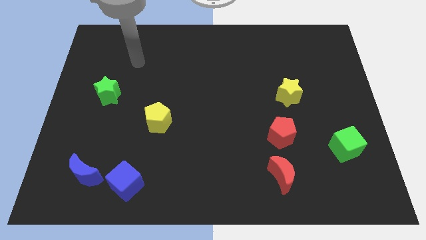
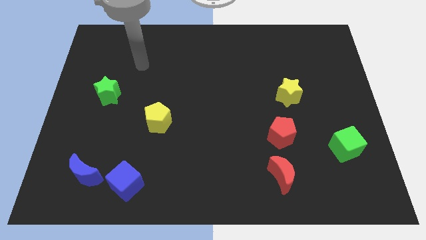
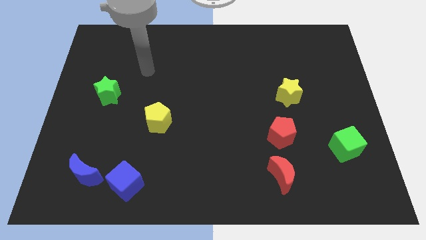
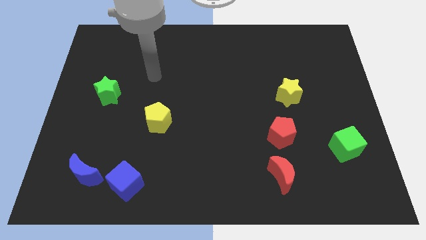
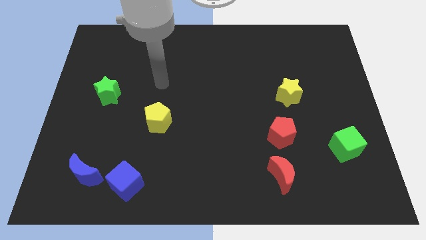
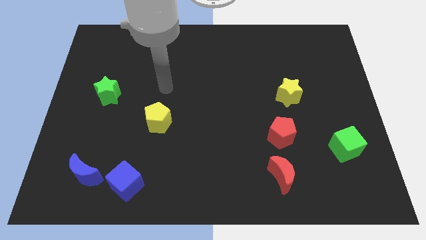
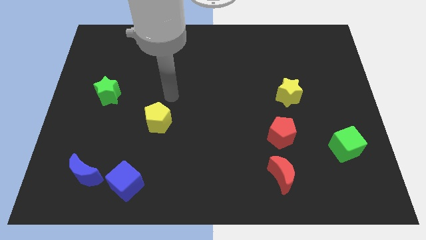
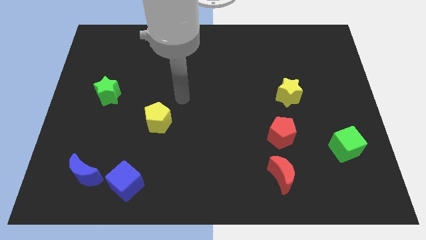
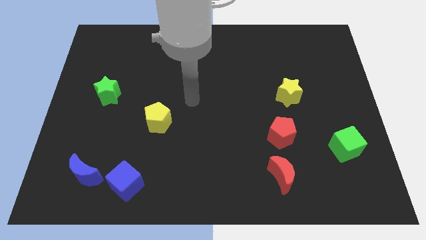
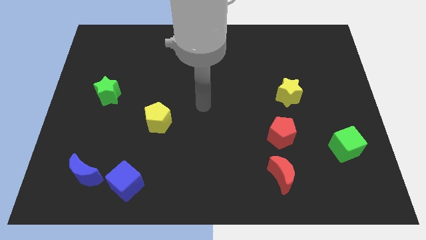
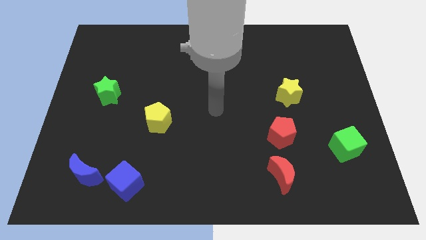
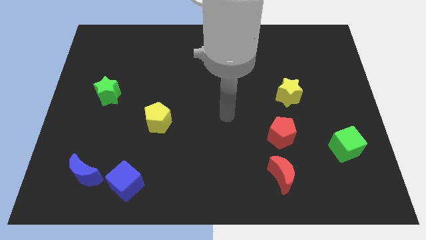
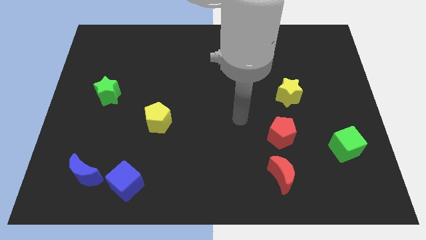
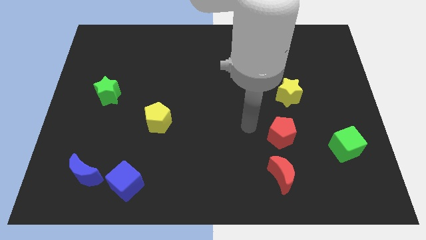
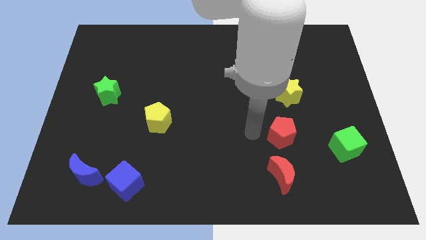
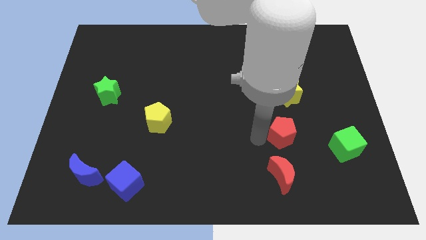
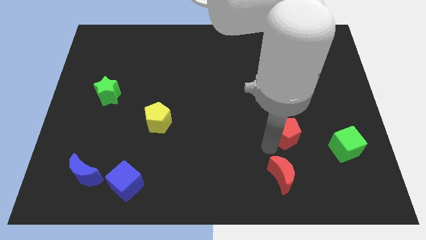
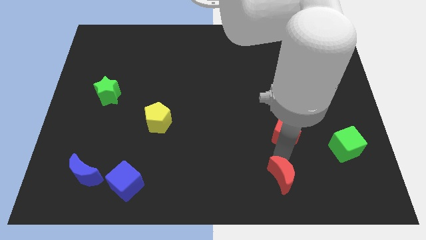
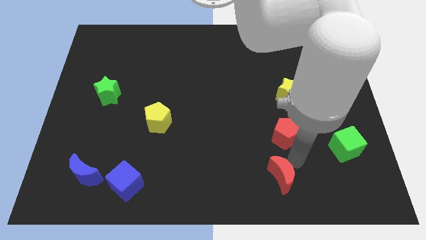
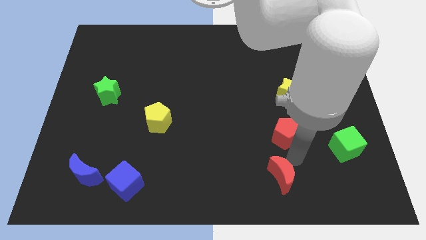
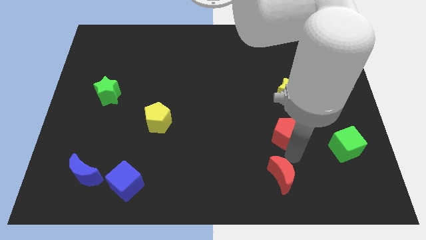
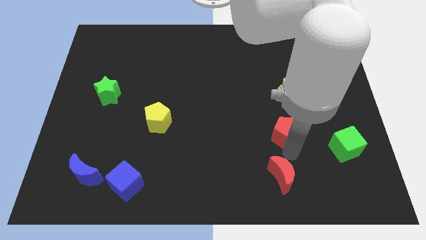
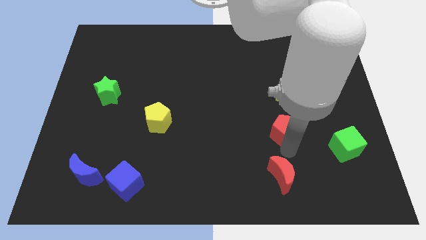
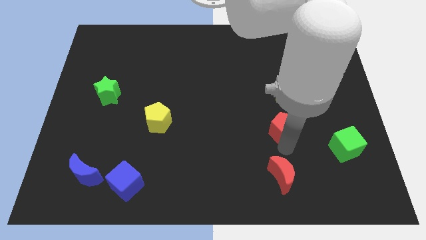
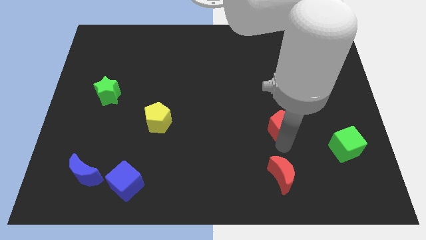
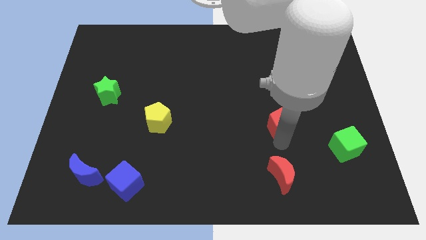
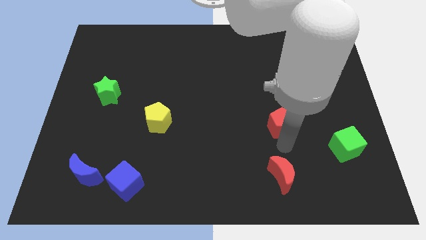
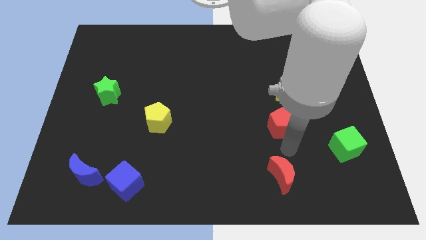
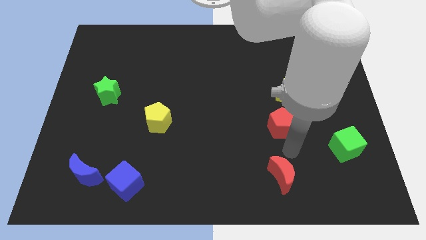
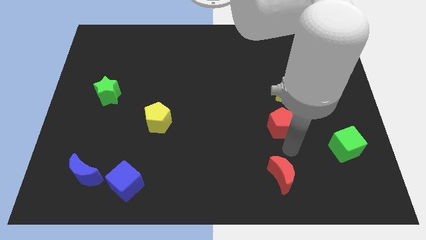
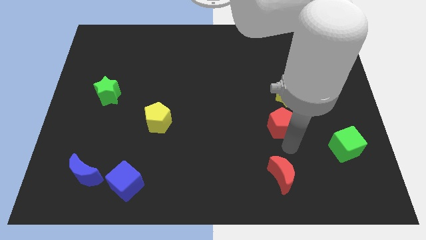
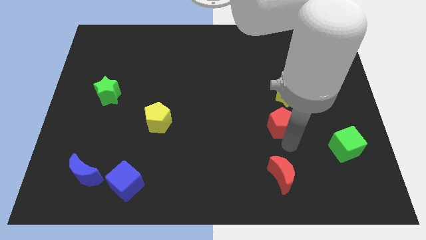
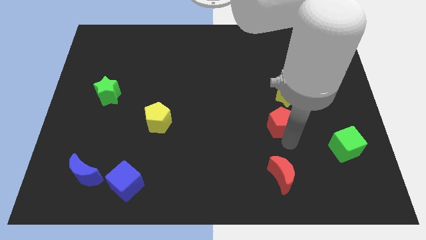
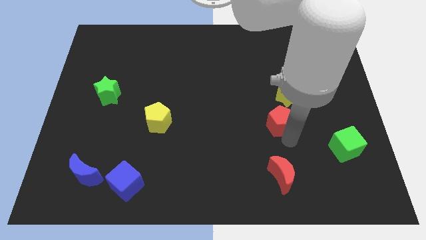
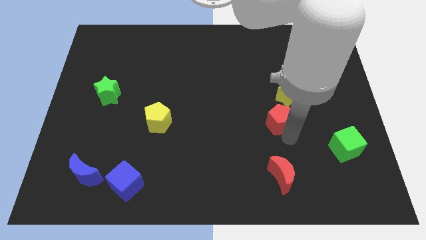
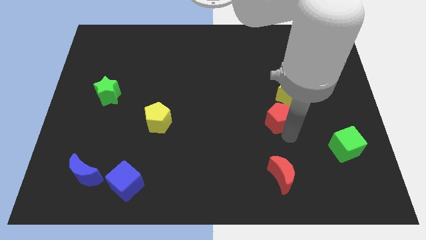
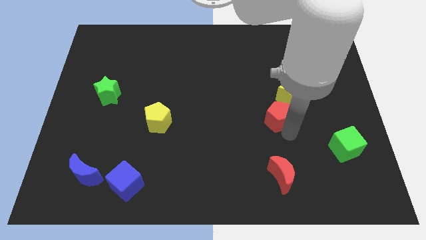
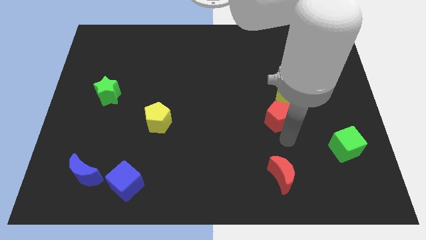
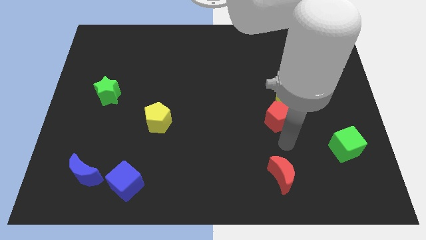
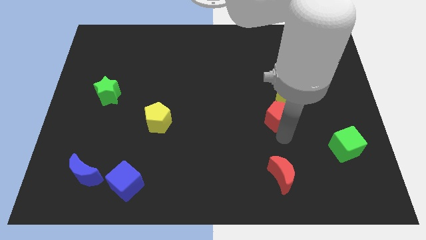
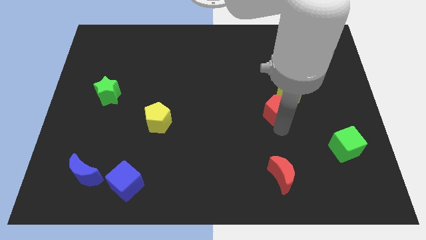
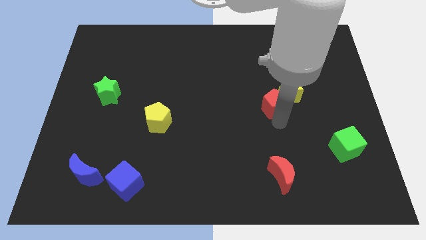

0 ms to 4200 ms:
move the red pentagon somewhat upwards

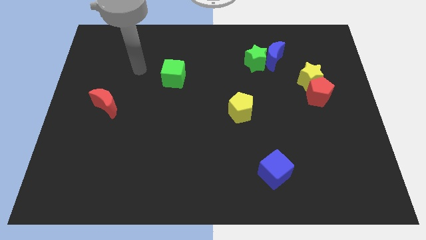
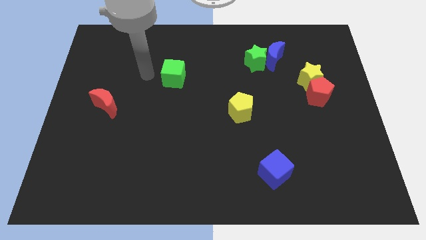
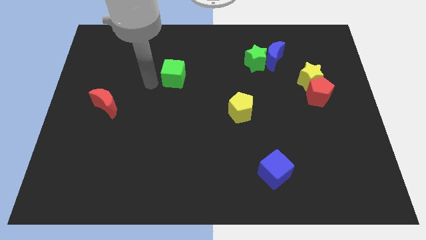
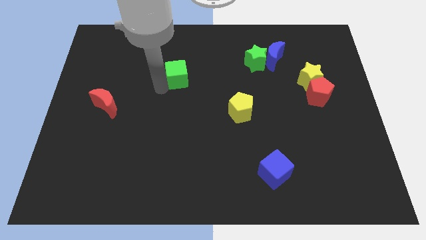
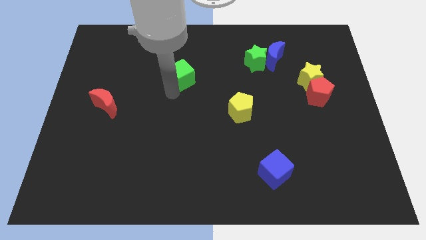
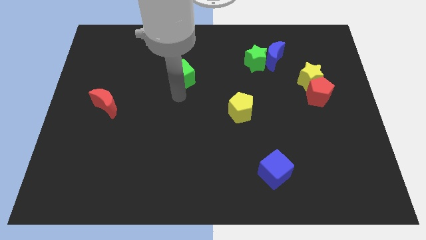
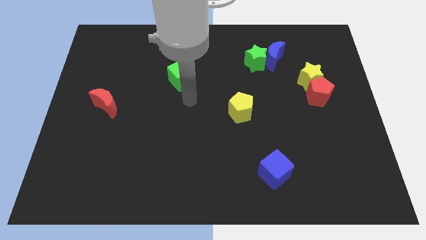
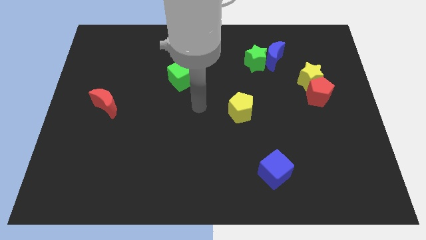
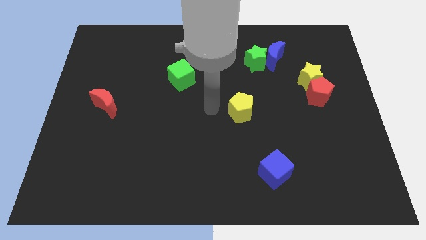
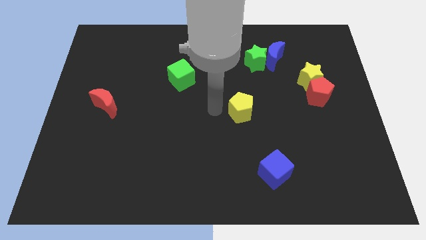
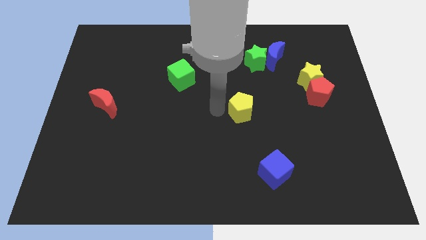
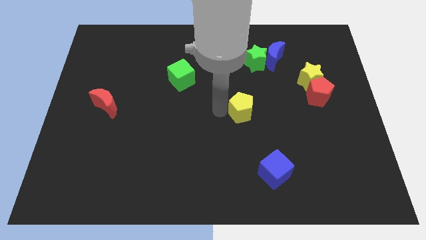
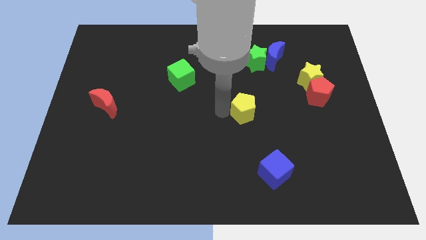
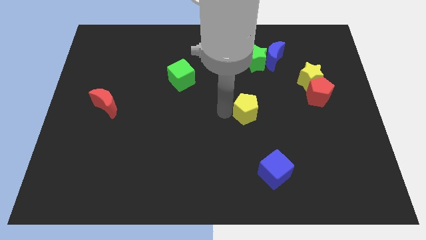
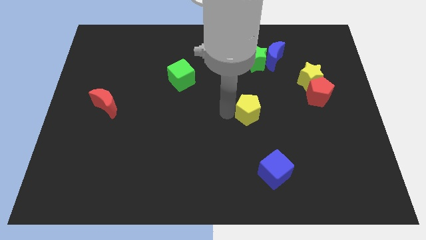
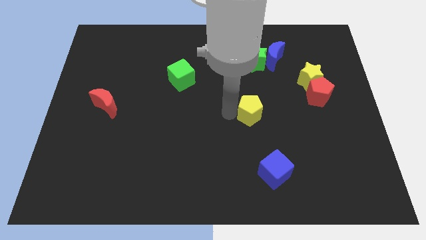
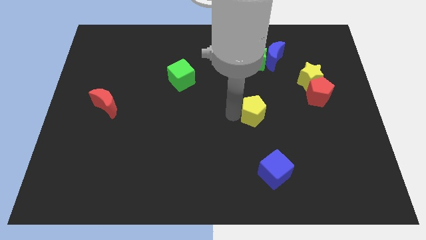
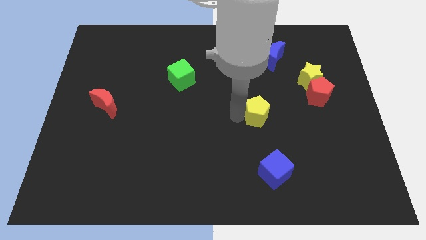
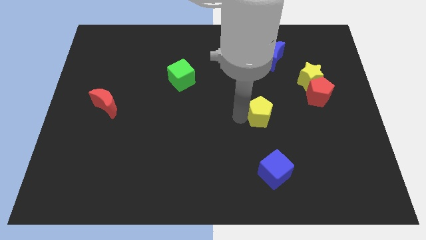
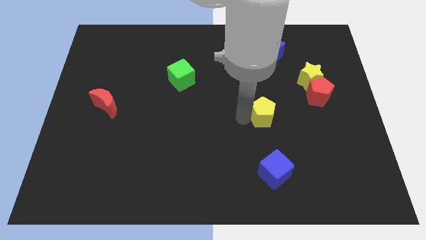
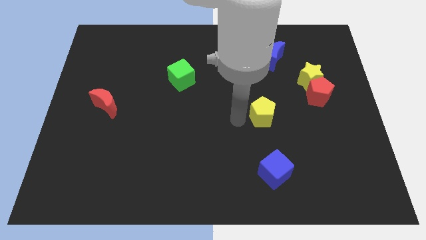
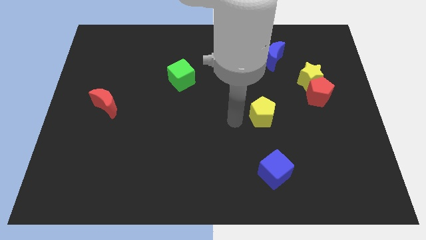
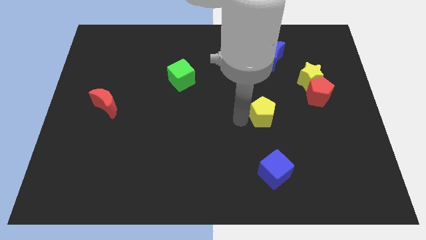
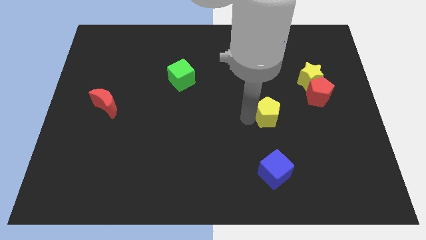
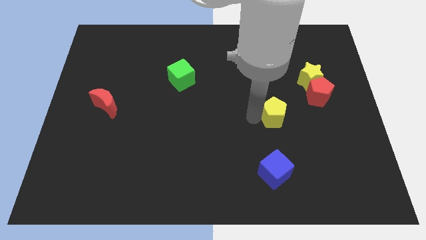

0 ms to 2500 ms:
slide the yellow pentagon a bit to the right

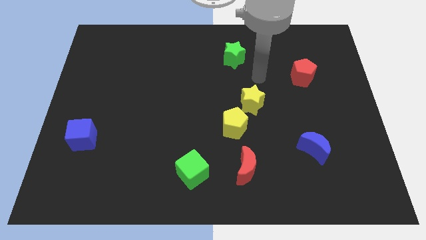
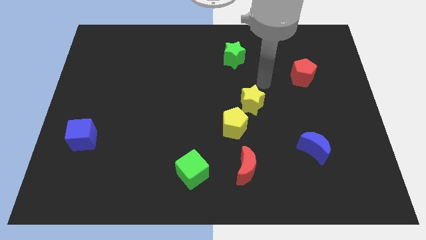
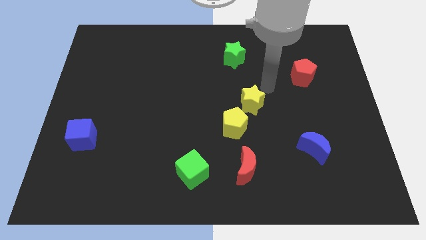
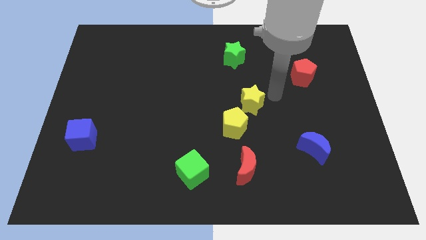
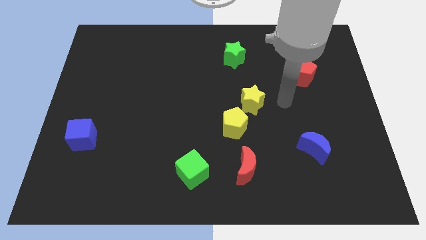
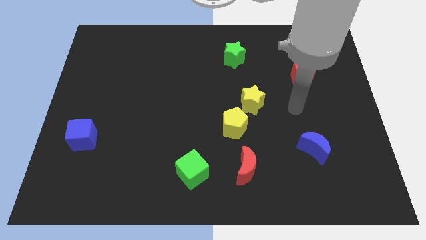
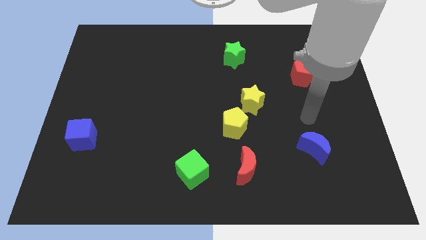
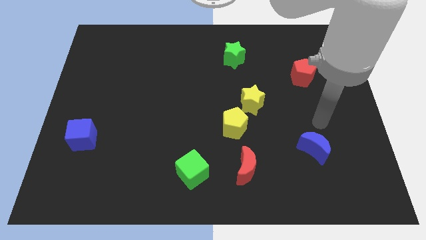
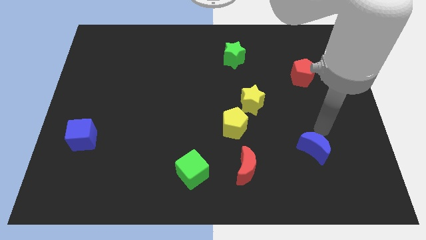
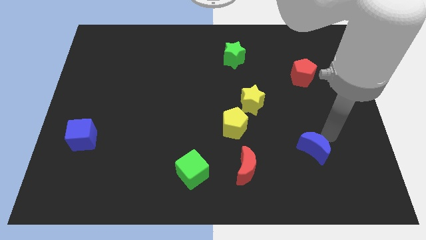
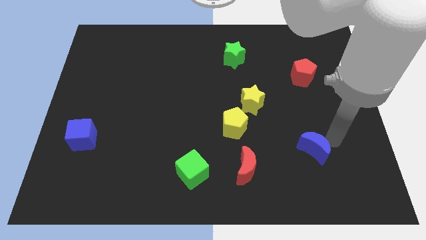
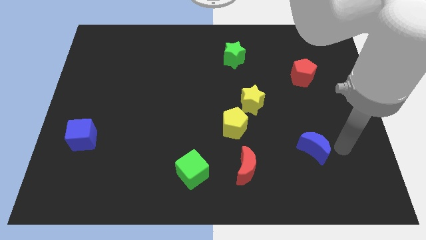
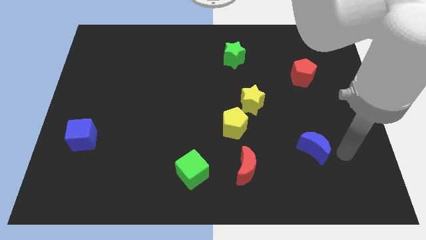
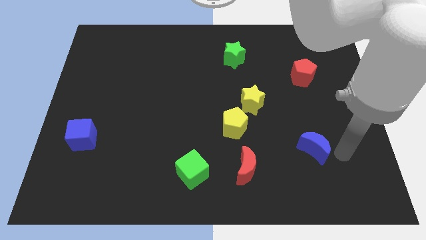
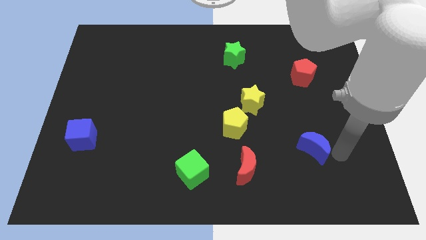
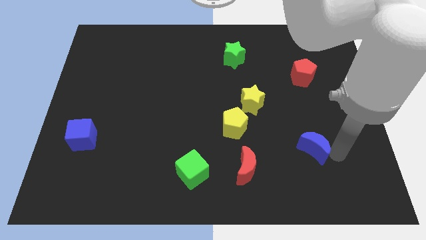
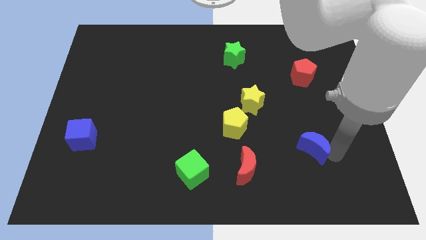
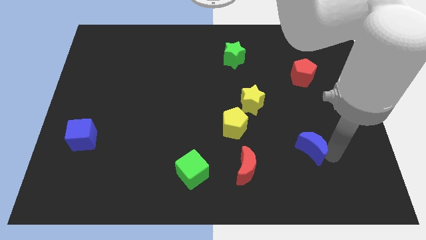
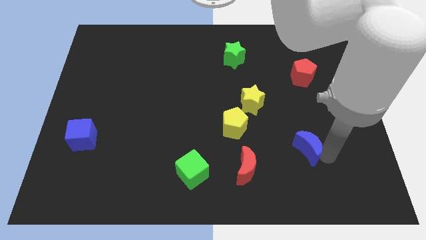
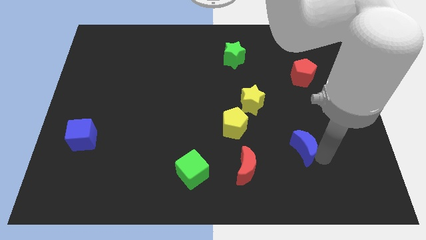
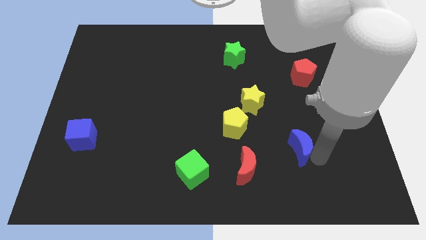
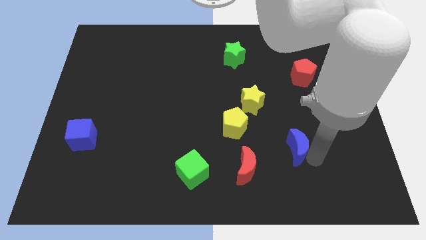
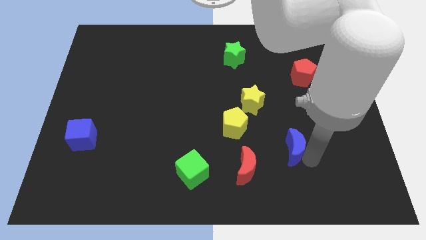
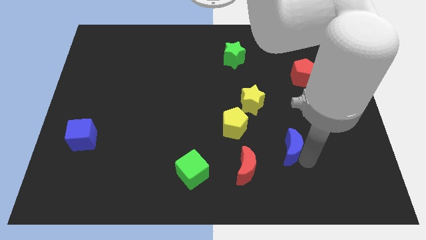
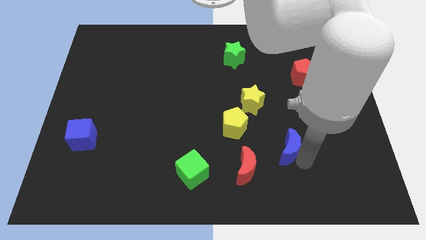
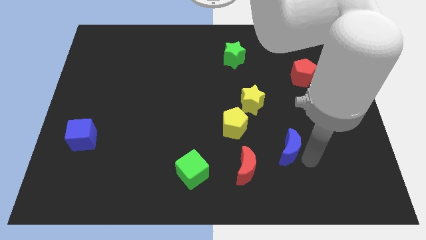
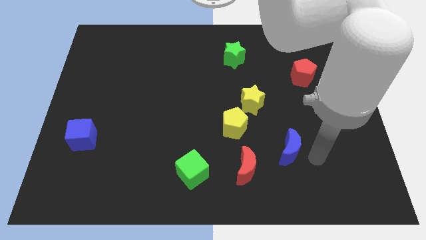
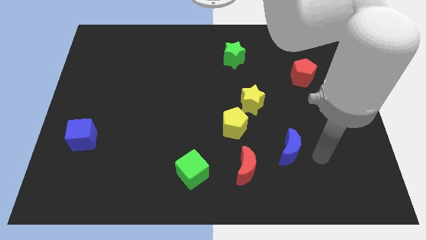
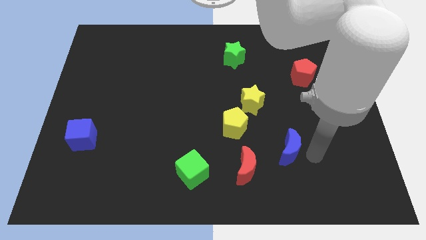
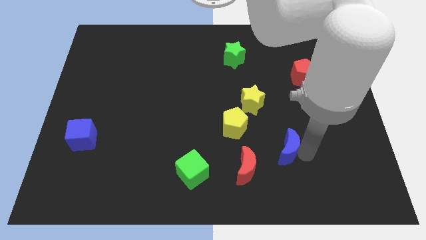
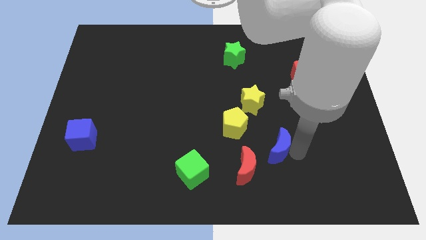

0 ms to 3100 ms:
slide the blue moon to the left slightly
